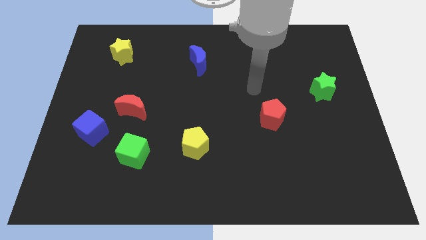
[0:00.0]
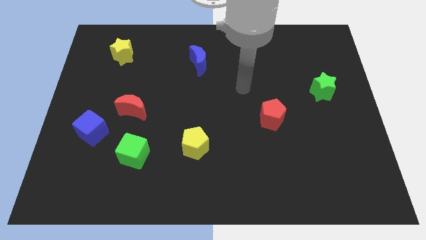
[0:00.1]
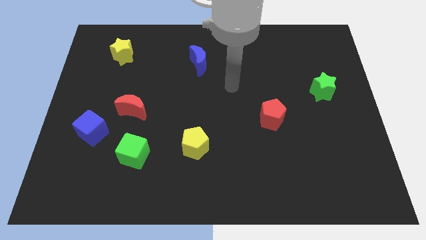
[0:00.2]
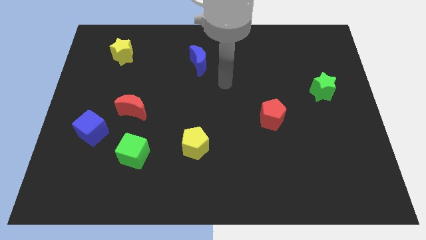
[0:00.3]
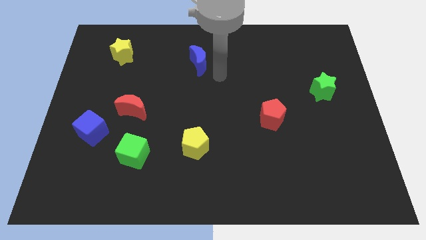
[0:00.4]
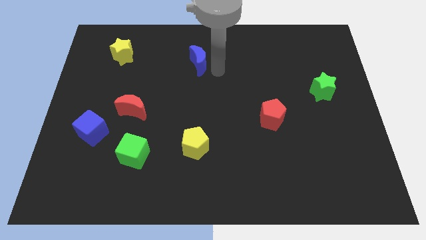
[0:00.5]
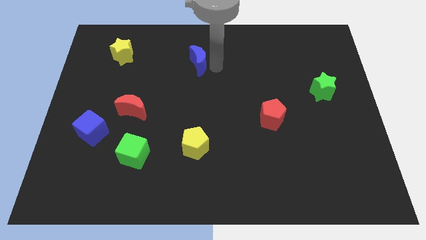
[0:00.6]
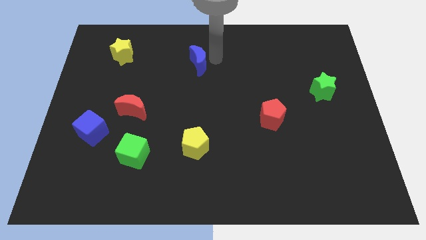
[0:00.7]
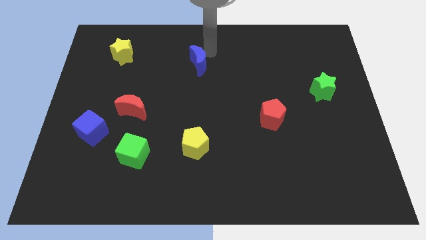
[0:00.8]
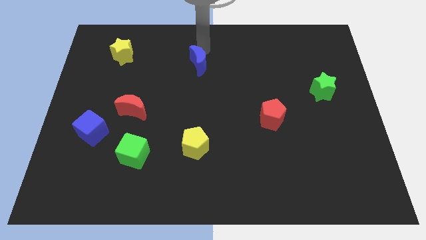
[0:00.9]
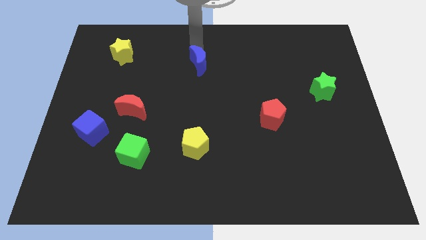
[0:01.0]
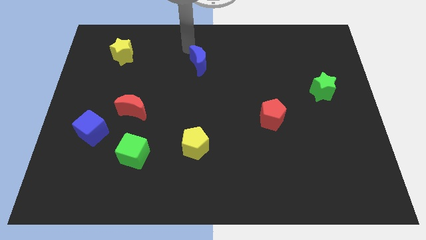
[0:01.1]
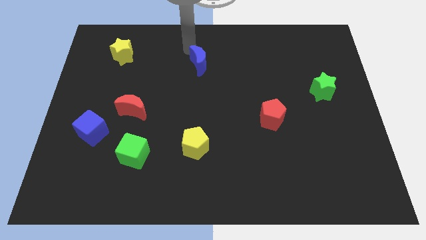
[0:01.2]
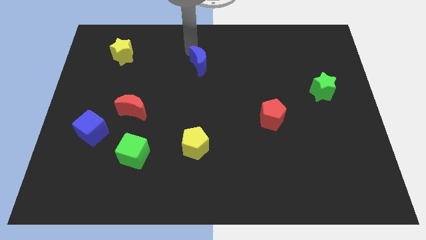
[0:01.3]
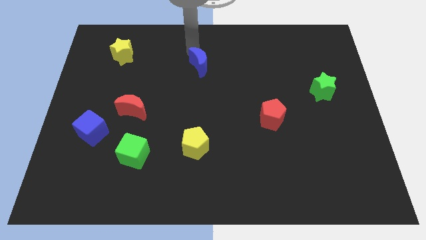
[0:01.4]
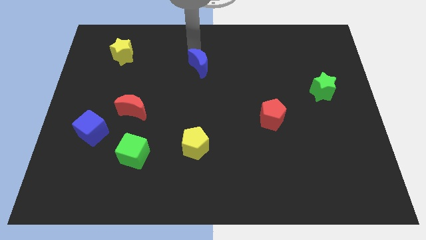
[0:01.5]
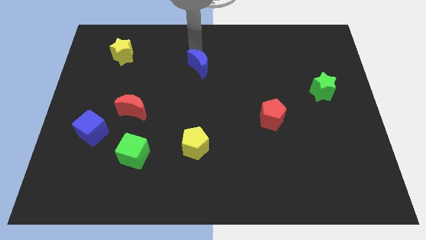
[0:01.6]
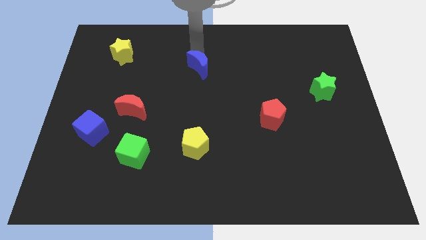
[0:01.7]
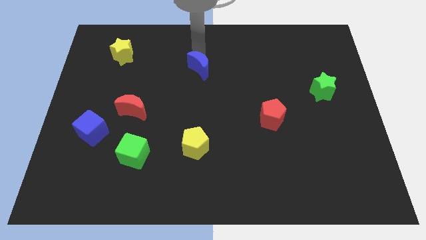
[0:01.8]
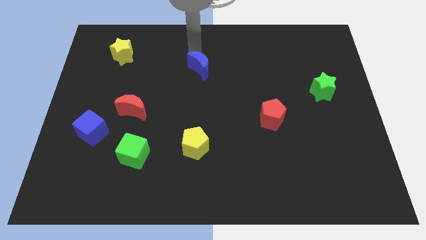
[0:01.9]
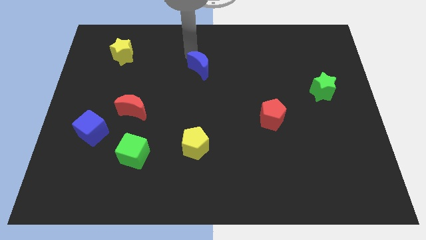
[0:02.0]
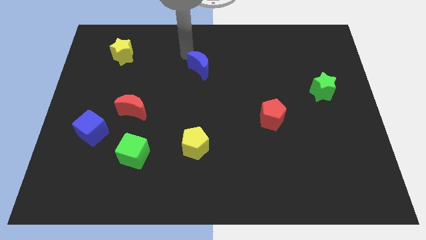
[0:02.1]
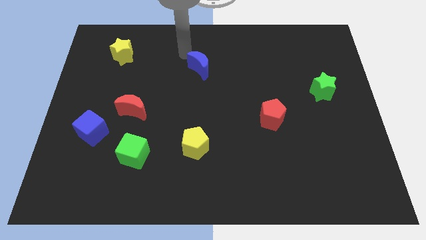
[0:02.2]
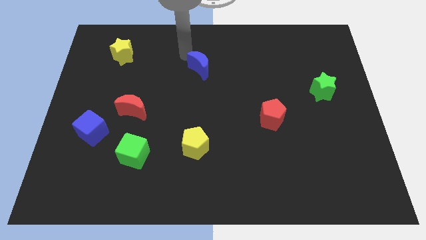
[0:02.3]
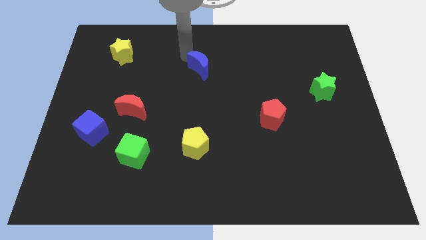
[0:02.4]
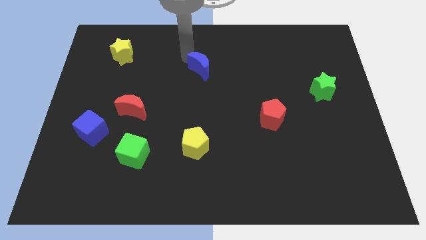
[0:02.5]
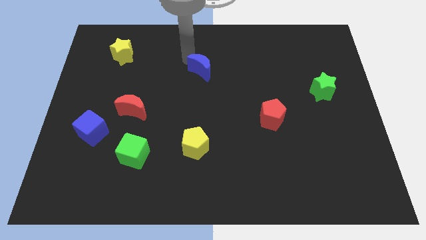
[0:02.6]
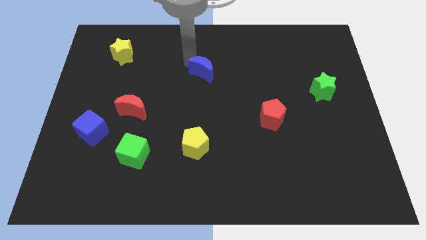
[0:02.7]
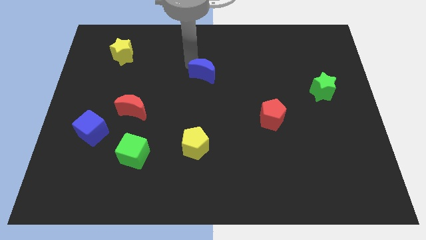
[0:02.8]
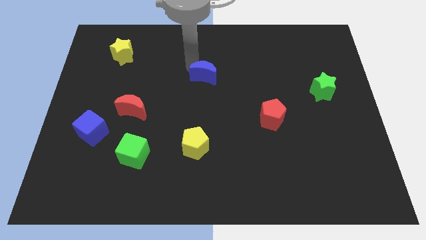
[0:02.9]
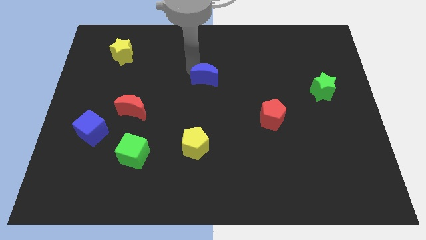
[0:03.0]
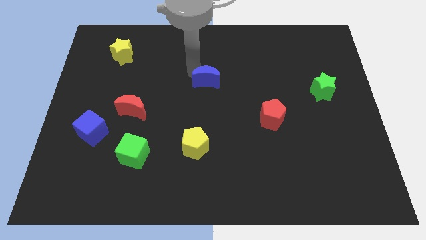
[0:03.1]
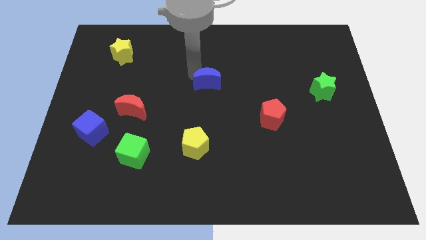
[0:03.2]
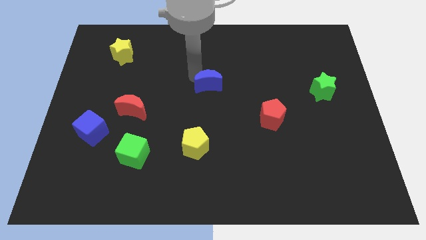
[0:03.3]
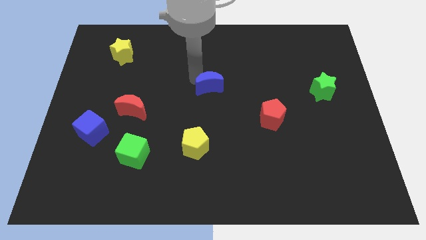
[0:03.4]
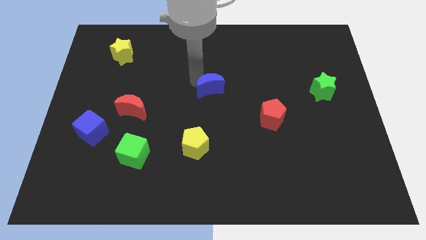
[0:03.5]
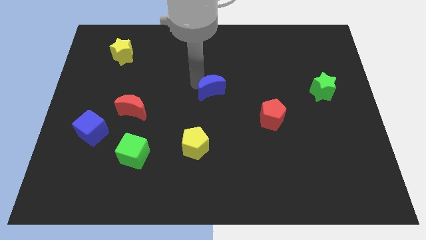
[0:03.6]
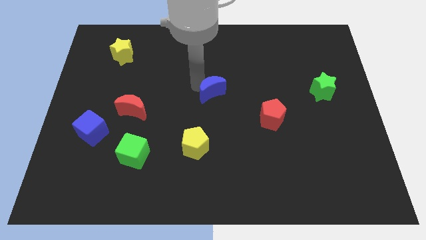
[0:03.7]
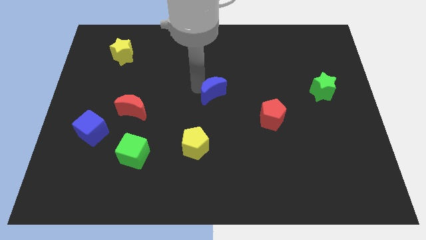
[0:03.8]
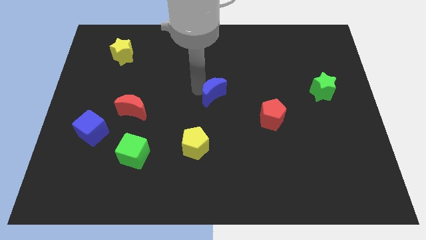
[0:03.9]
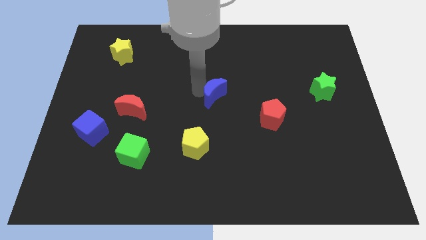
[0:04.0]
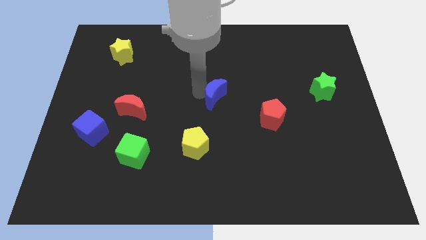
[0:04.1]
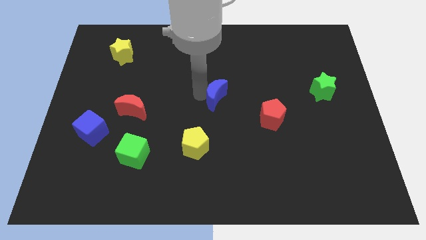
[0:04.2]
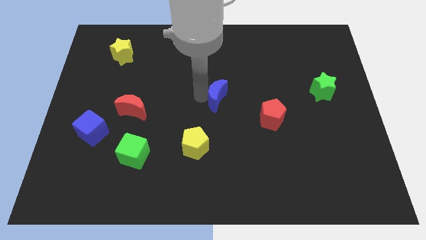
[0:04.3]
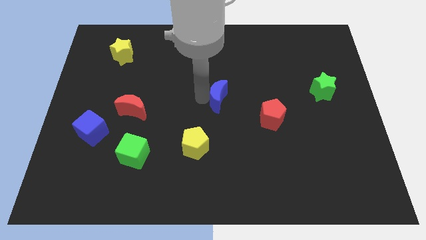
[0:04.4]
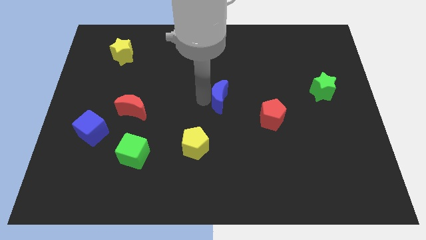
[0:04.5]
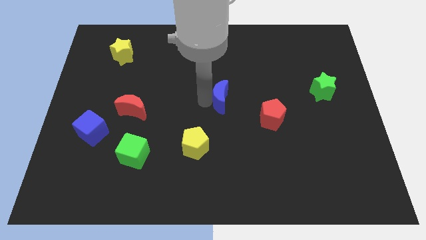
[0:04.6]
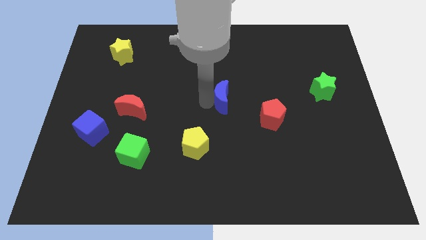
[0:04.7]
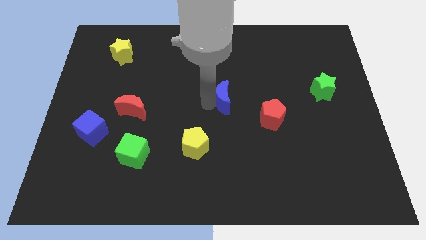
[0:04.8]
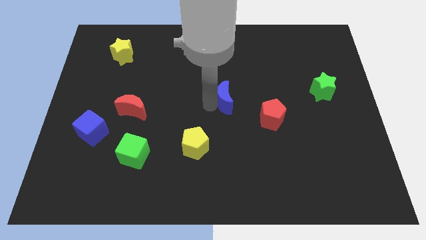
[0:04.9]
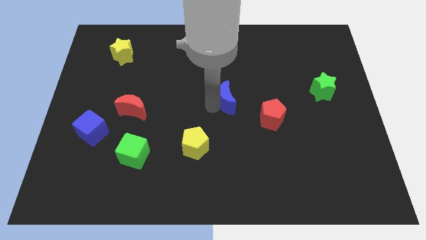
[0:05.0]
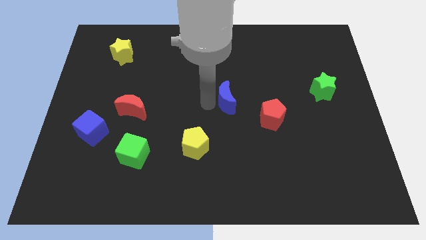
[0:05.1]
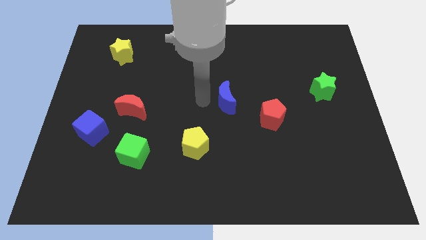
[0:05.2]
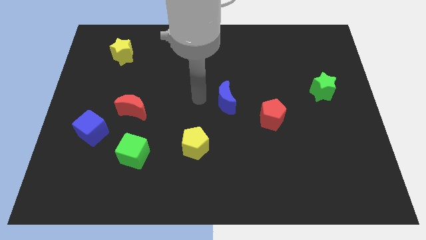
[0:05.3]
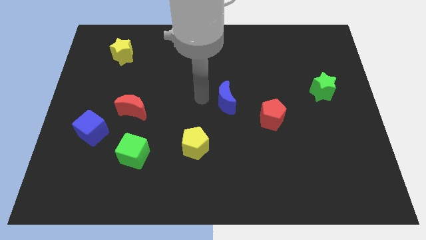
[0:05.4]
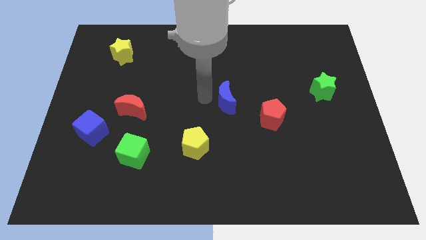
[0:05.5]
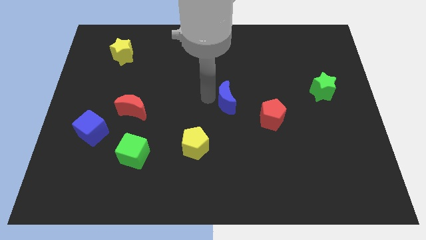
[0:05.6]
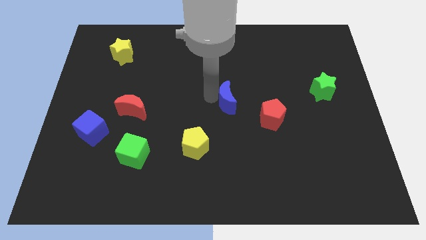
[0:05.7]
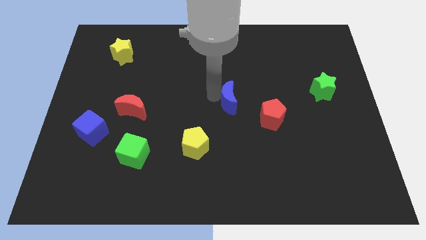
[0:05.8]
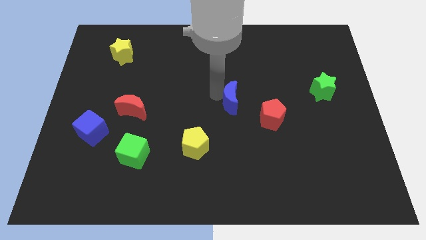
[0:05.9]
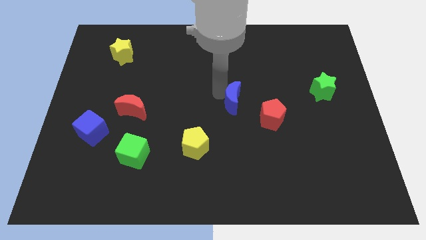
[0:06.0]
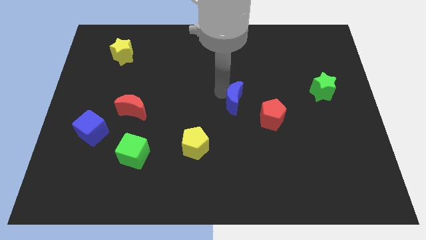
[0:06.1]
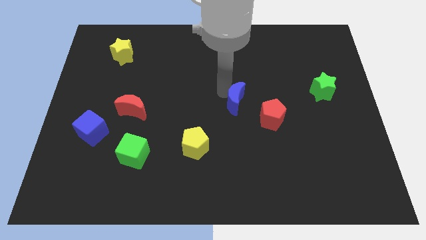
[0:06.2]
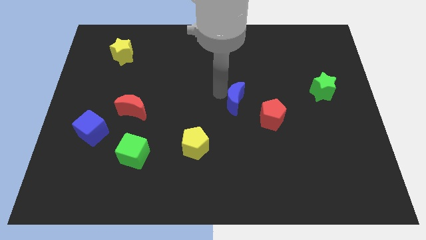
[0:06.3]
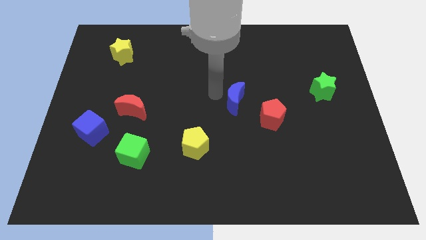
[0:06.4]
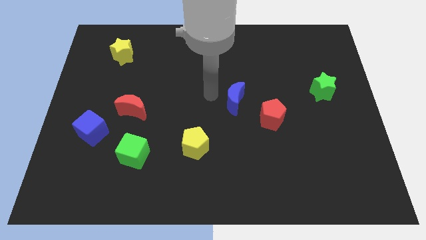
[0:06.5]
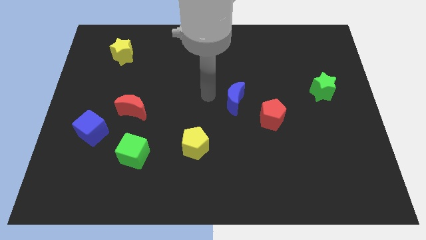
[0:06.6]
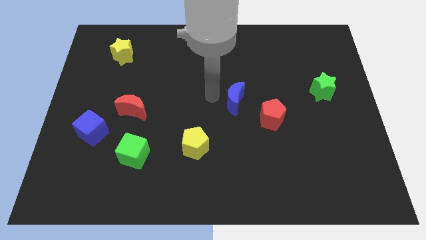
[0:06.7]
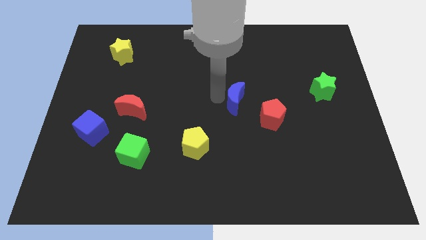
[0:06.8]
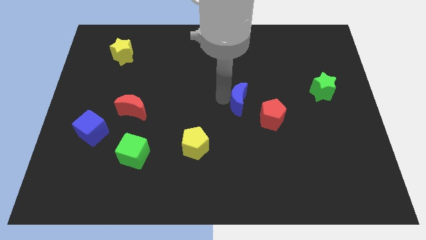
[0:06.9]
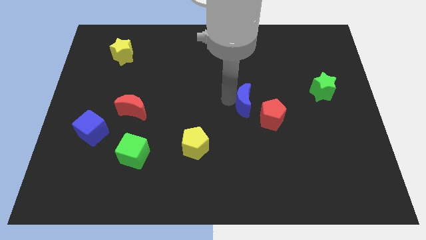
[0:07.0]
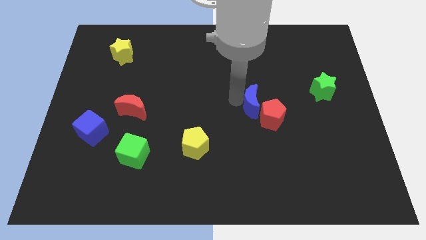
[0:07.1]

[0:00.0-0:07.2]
slide the blue moon towards the red pentagon

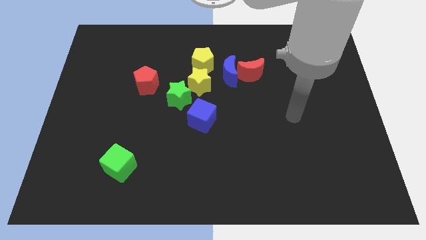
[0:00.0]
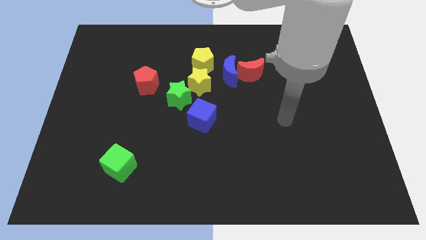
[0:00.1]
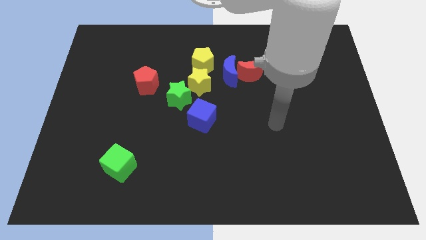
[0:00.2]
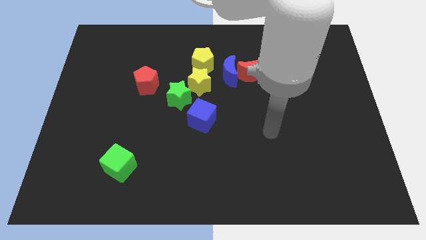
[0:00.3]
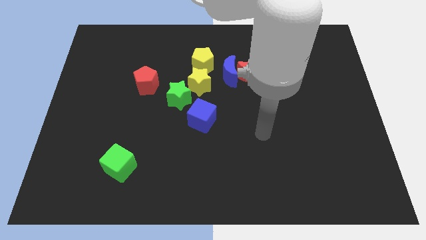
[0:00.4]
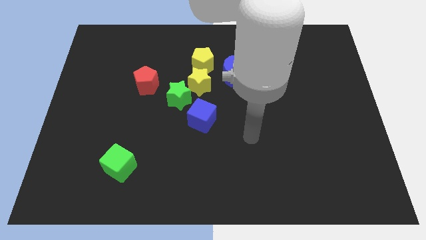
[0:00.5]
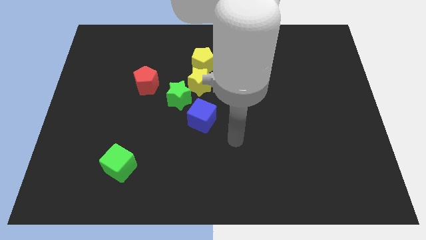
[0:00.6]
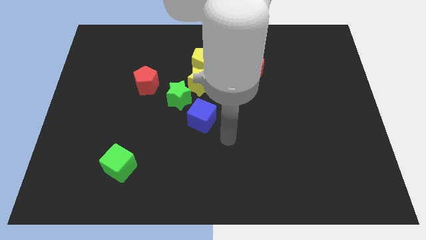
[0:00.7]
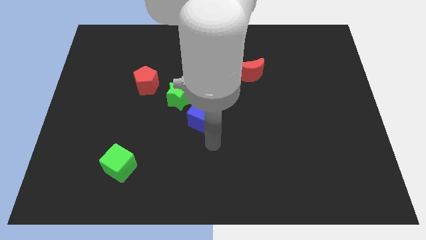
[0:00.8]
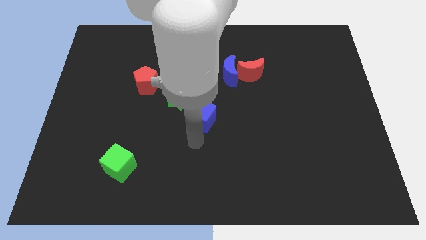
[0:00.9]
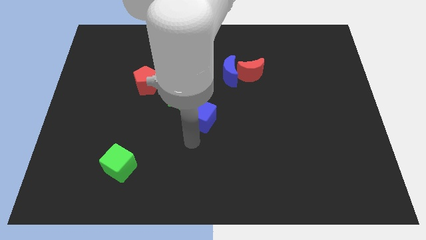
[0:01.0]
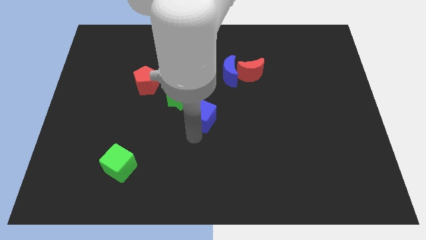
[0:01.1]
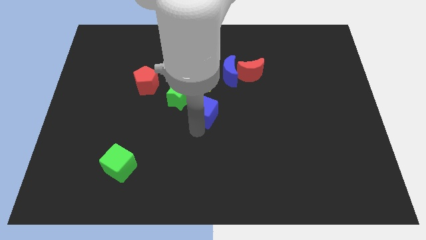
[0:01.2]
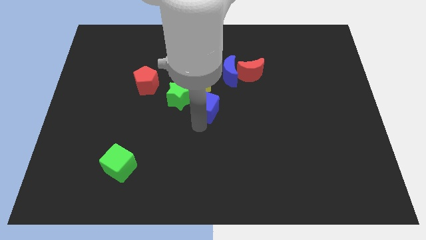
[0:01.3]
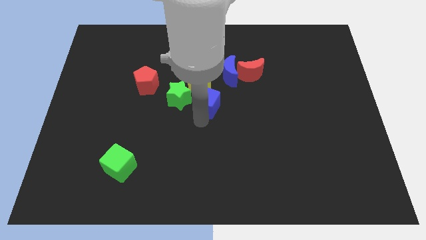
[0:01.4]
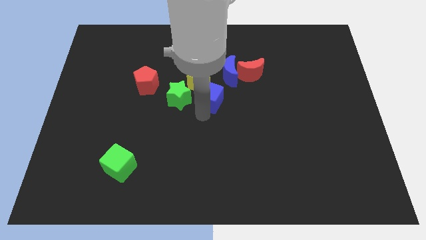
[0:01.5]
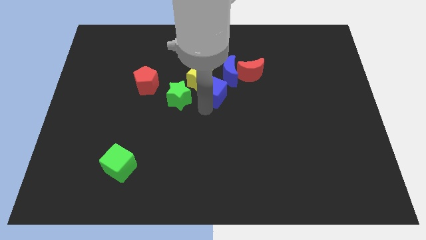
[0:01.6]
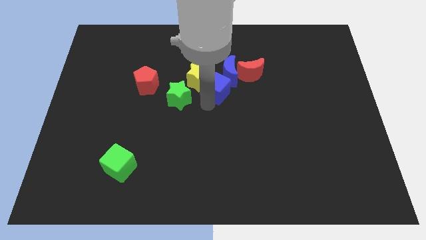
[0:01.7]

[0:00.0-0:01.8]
put the blue cube next to the blue moon
